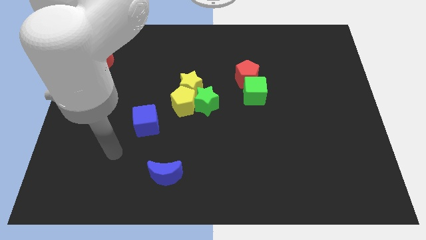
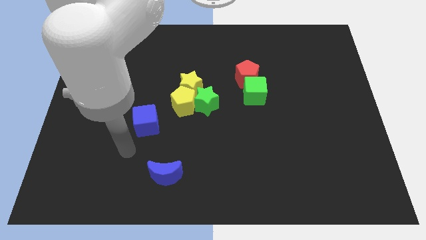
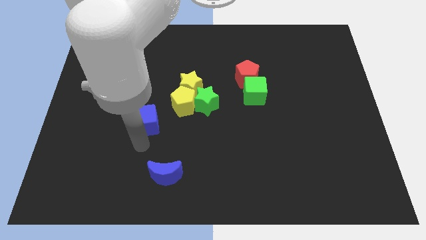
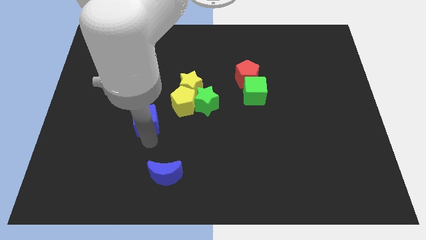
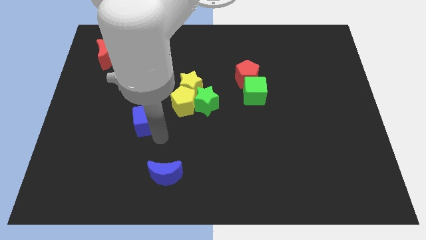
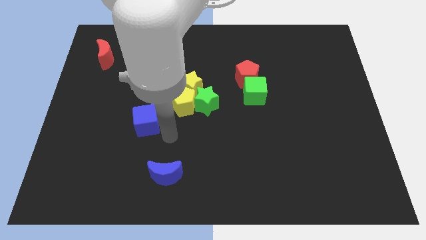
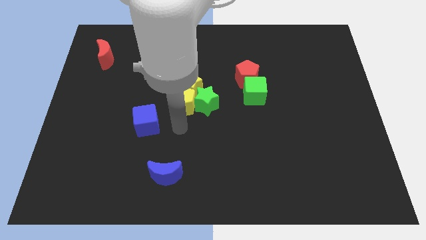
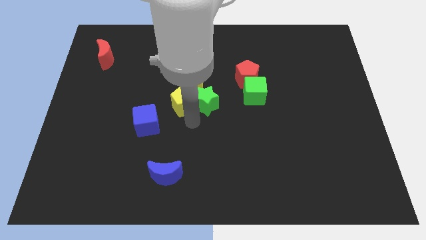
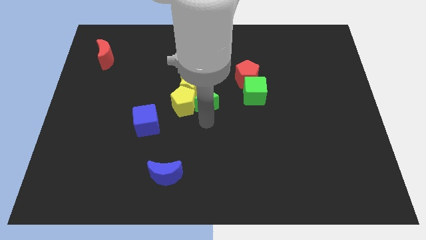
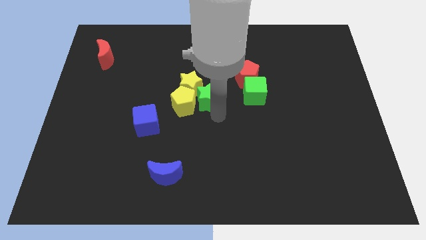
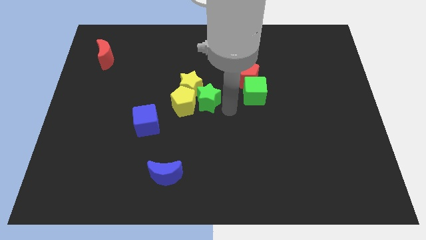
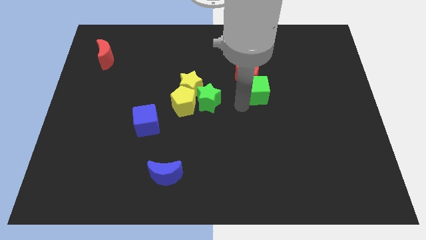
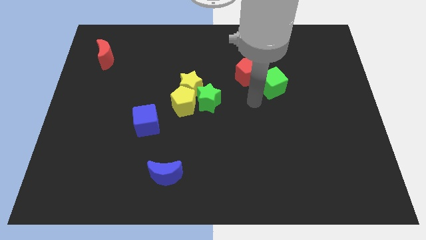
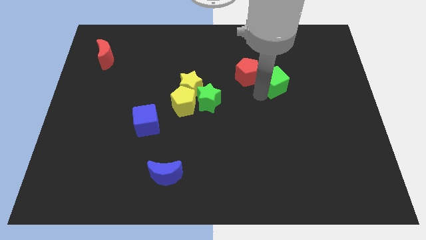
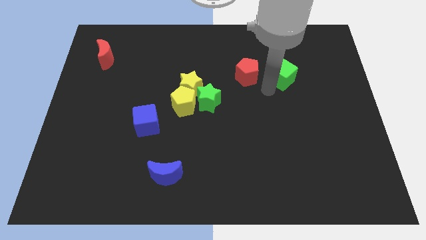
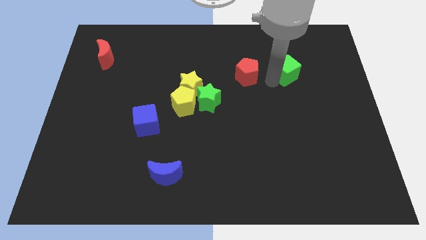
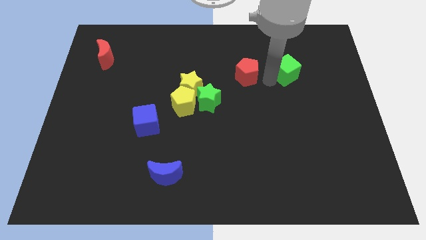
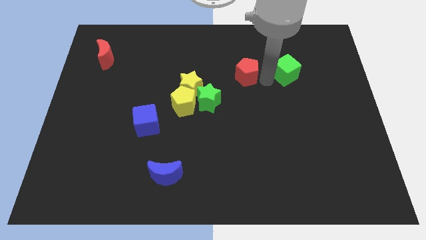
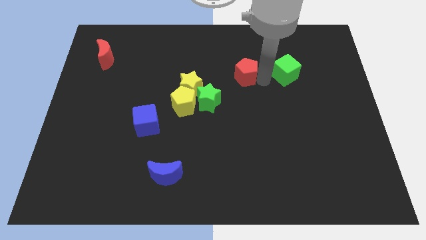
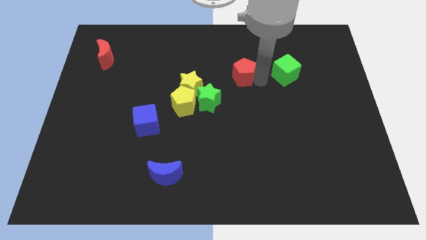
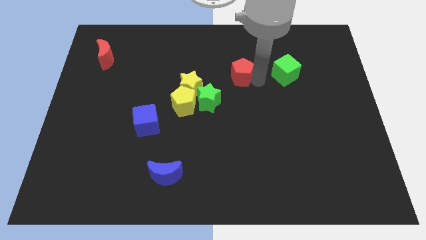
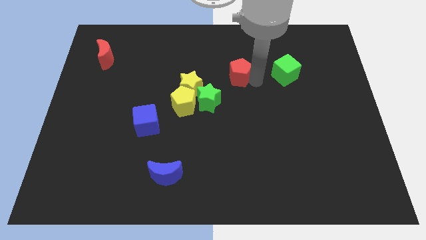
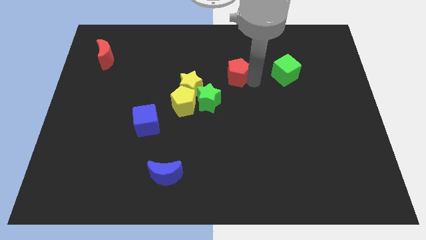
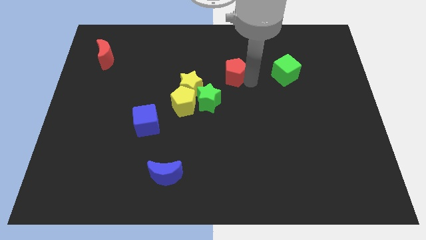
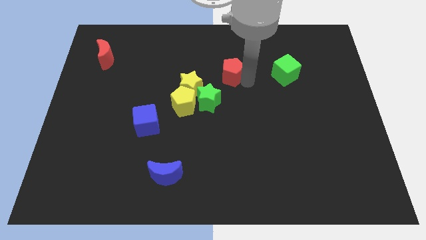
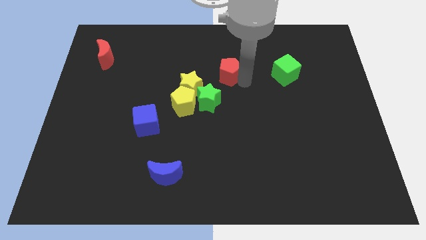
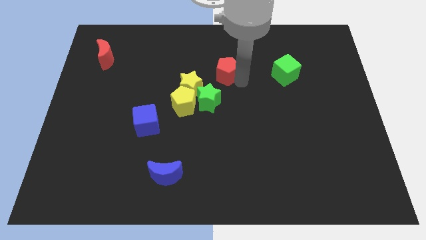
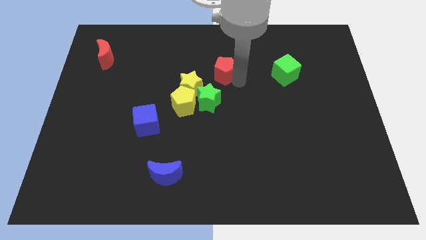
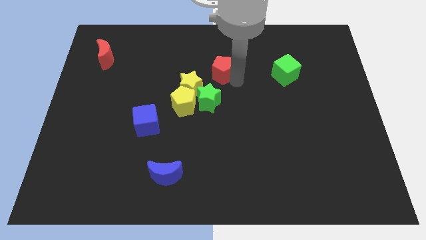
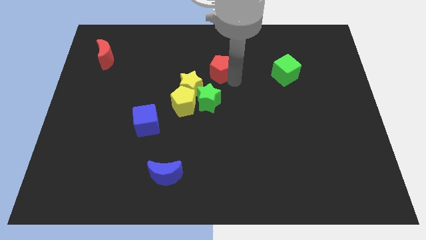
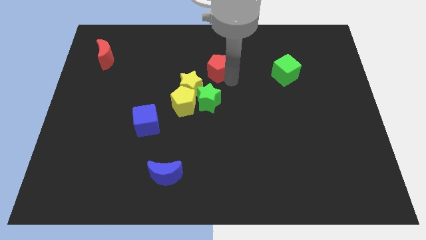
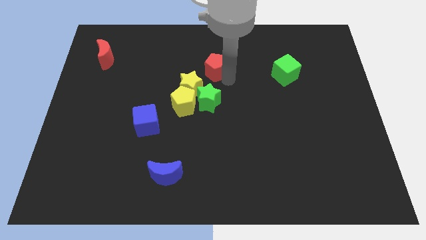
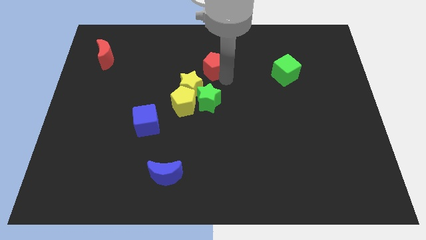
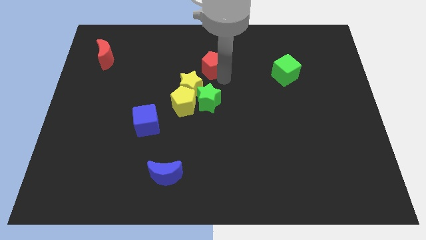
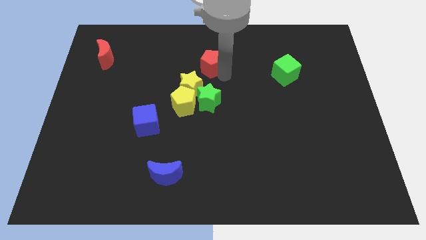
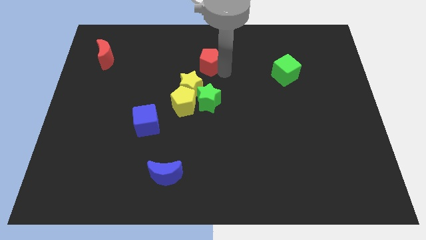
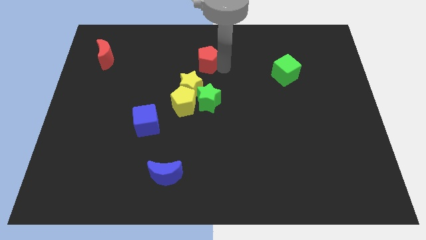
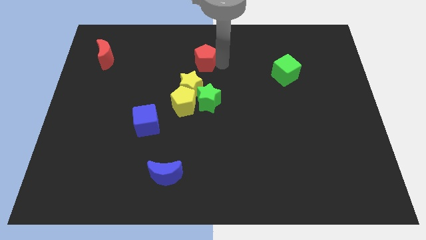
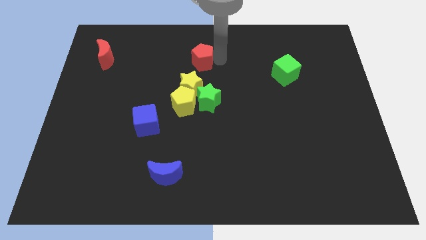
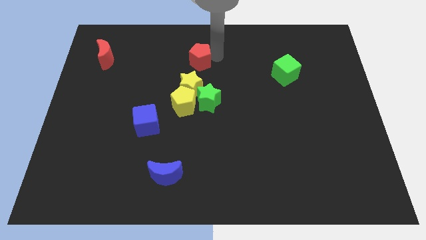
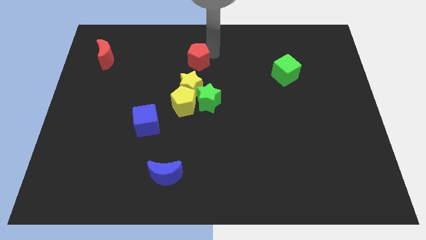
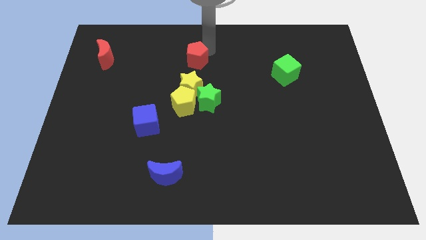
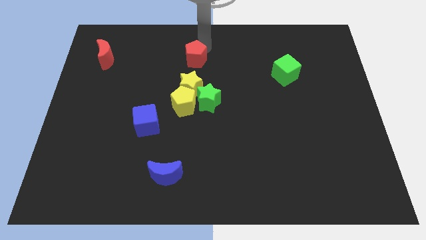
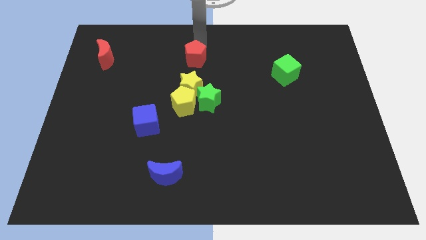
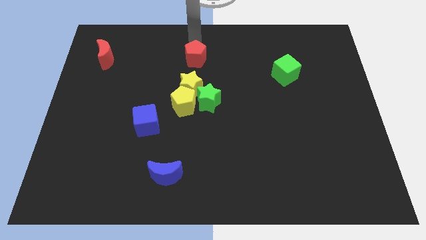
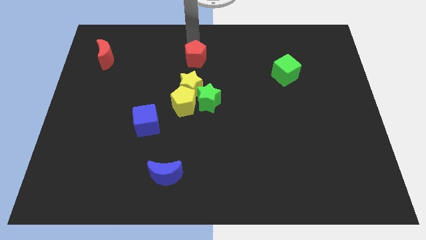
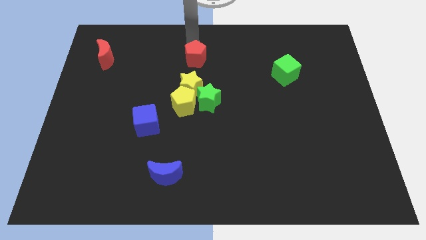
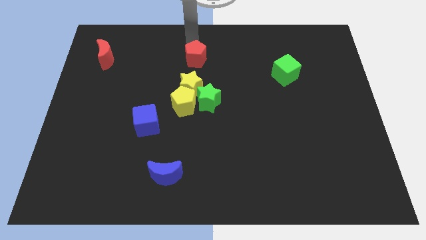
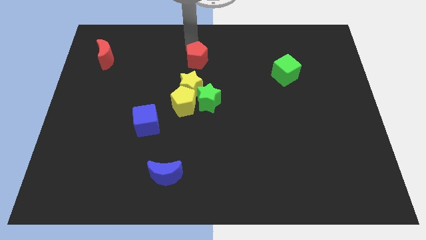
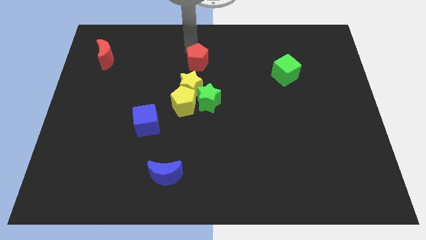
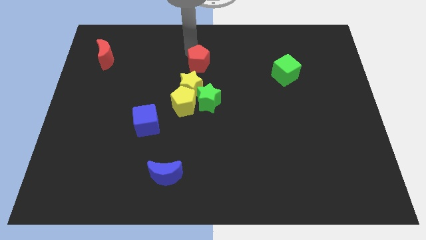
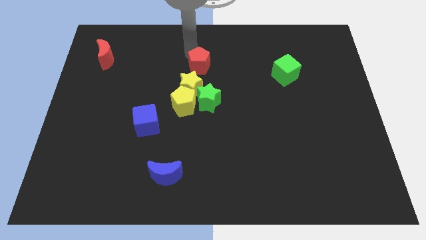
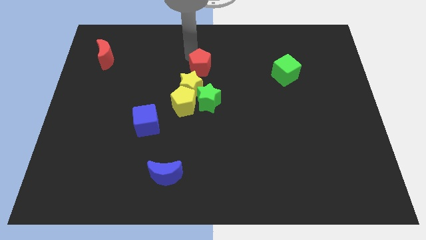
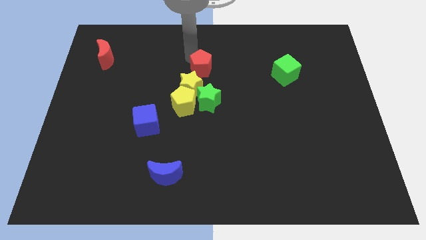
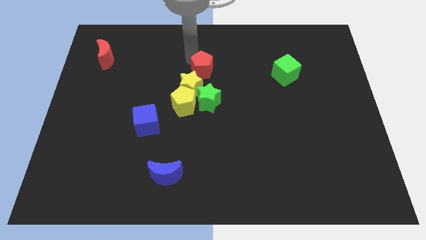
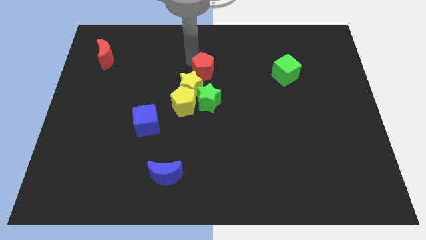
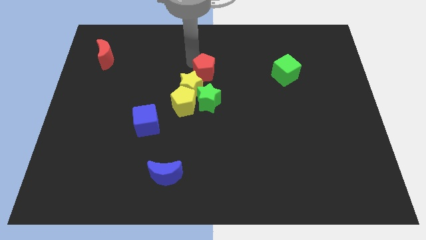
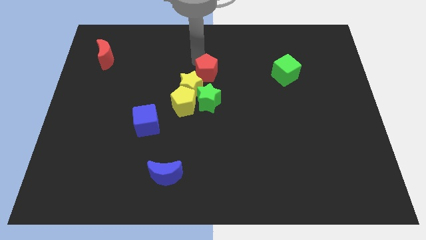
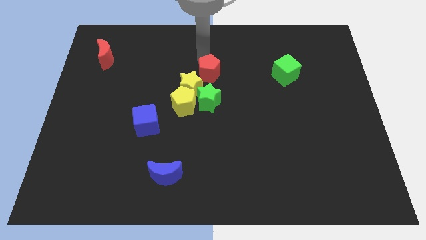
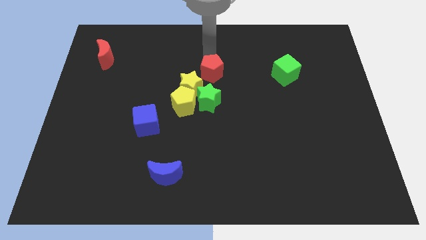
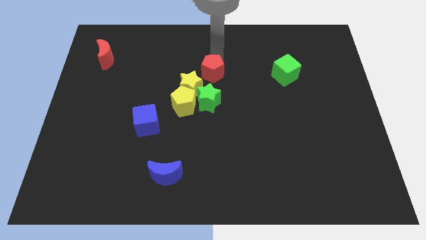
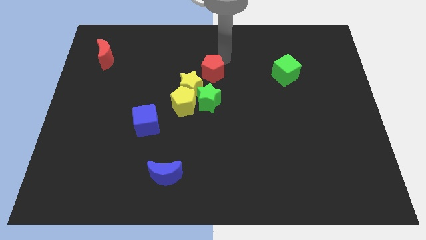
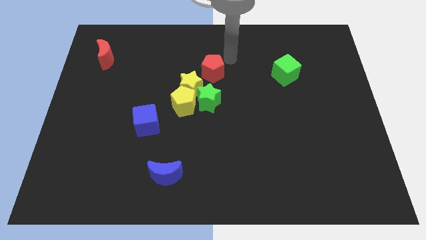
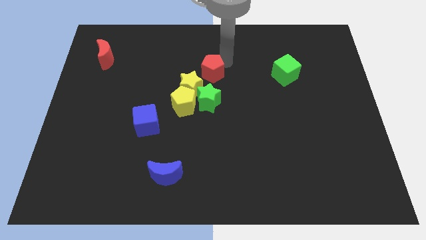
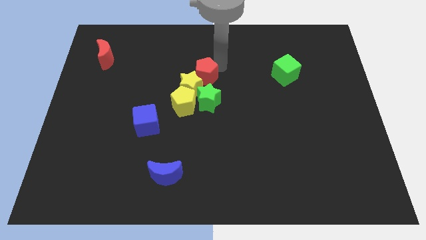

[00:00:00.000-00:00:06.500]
push the red pentagon to the yellow star

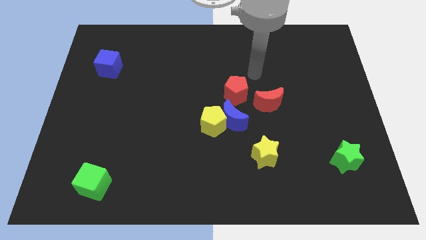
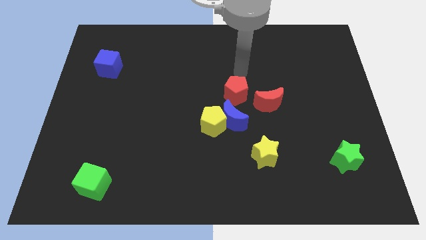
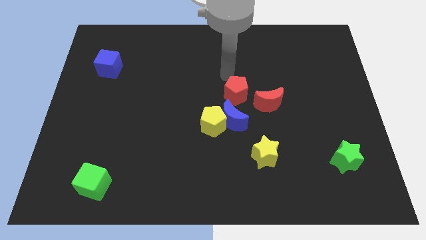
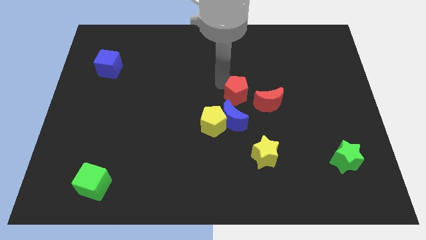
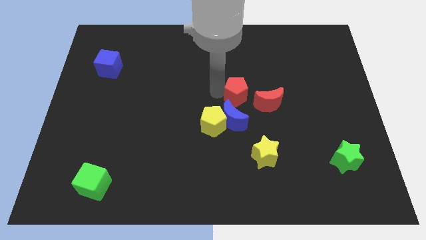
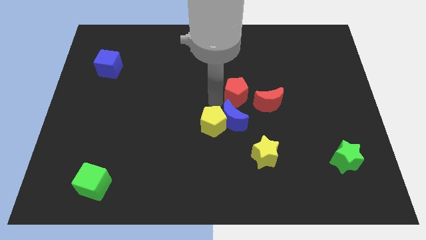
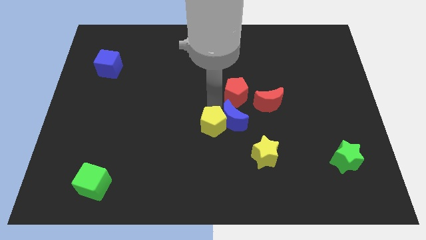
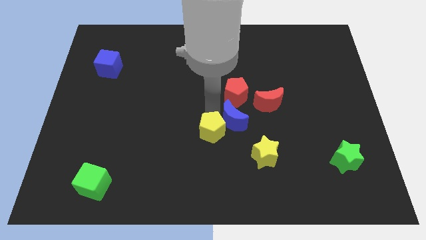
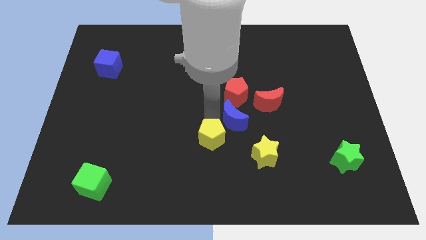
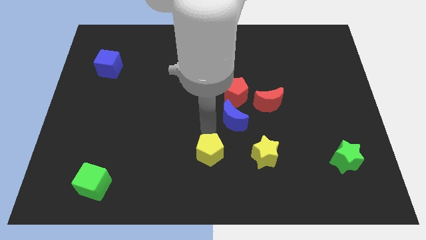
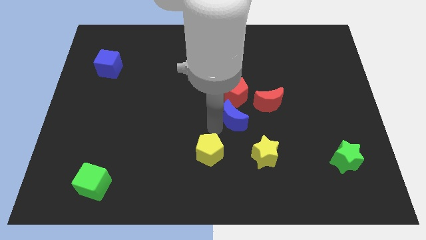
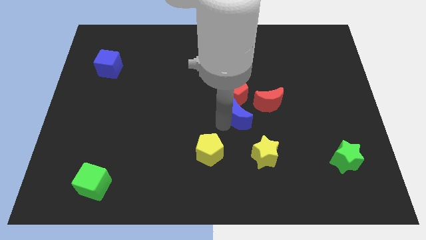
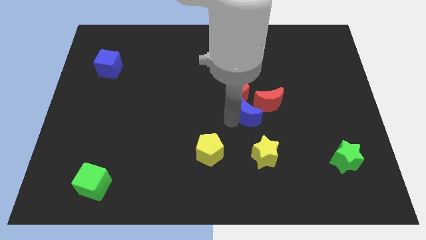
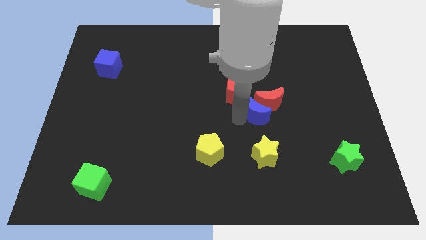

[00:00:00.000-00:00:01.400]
slide the blue moon to the red moon
